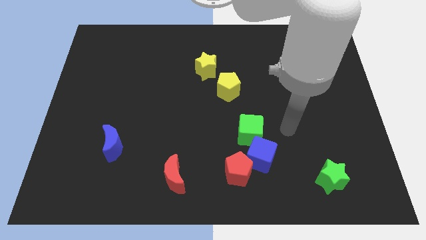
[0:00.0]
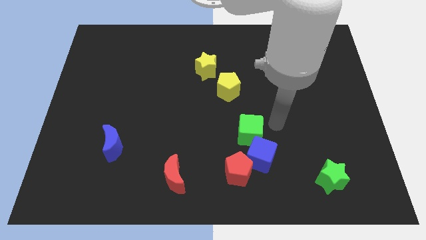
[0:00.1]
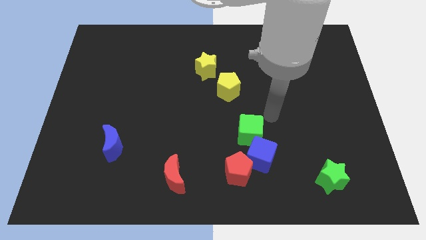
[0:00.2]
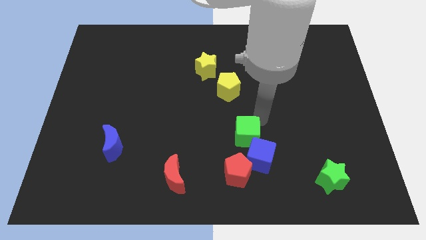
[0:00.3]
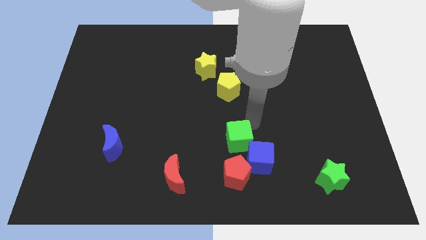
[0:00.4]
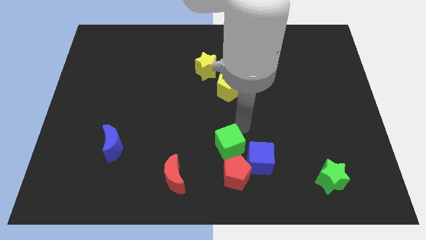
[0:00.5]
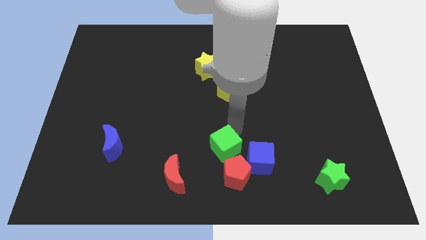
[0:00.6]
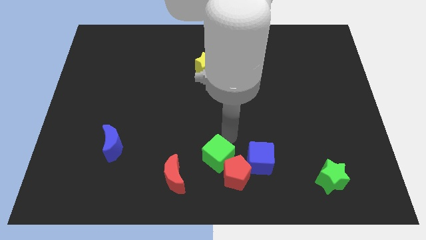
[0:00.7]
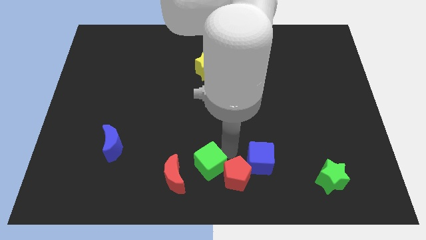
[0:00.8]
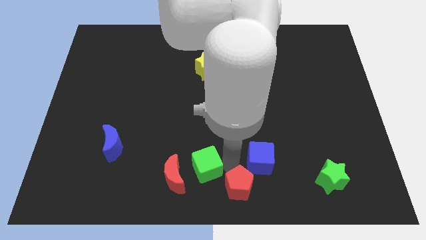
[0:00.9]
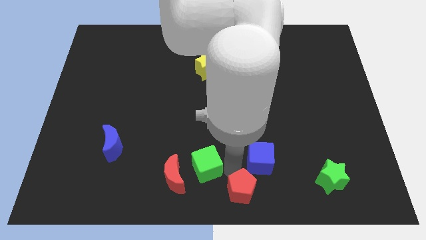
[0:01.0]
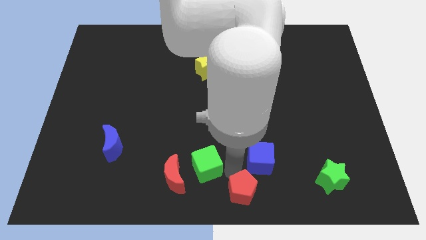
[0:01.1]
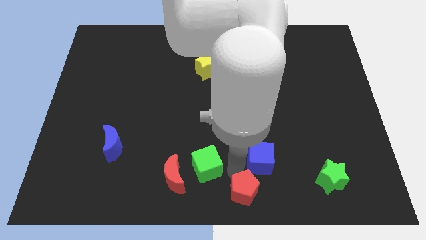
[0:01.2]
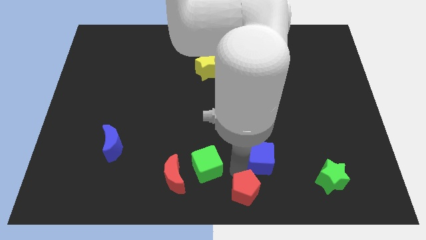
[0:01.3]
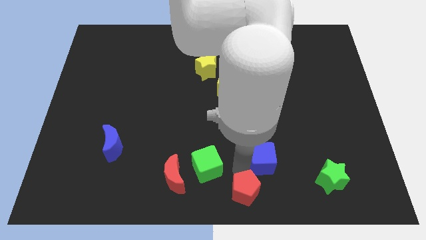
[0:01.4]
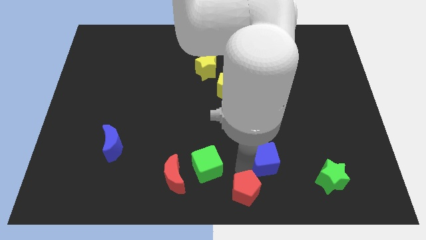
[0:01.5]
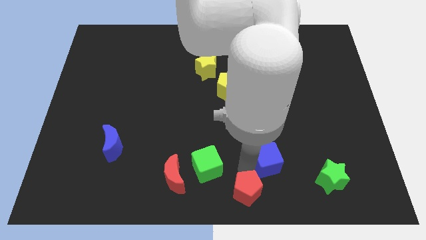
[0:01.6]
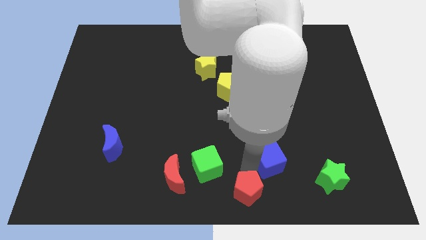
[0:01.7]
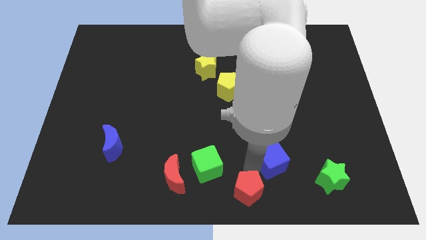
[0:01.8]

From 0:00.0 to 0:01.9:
move the blue cube away from the red pentagon and green cube

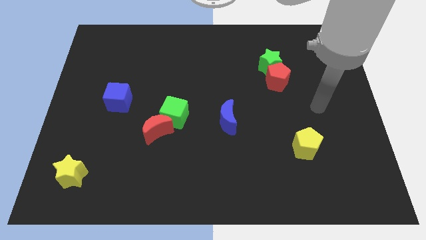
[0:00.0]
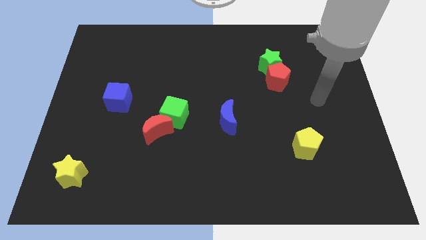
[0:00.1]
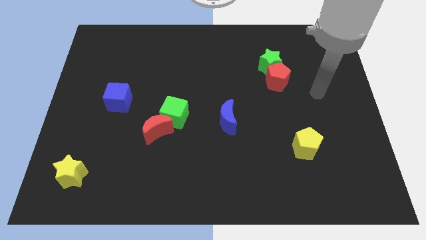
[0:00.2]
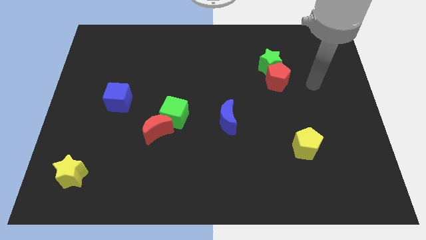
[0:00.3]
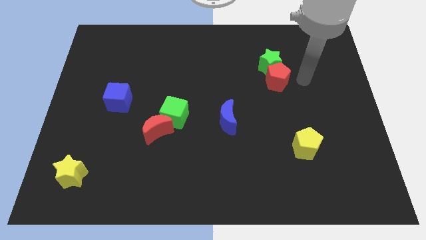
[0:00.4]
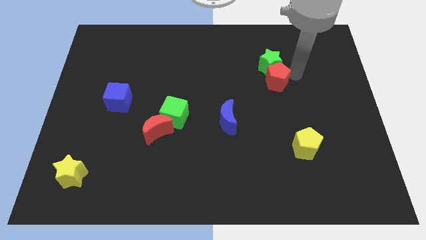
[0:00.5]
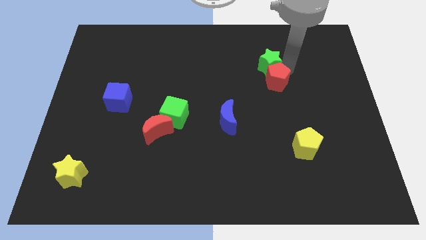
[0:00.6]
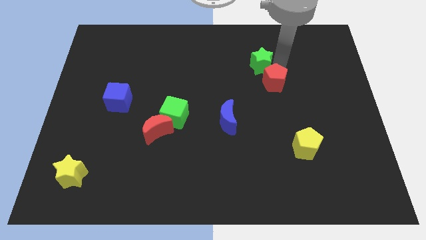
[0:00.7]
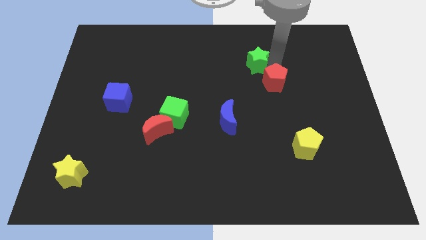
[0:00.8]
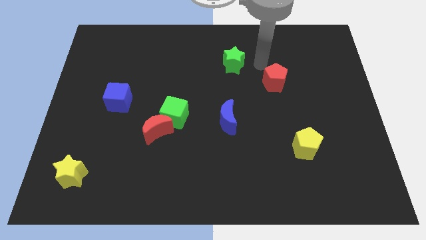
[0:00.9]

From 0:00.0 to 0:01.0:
pull the red pentagon apart from the green star

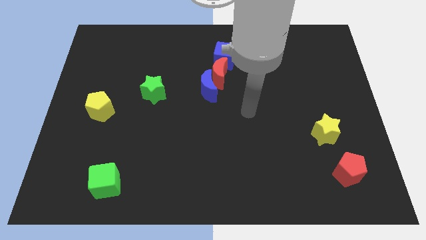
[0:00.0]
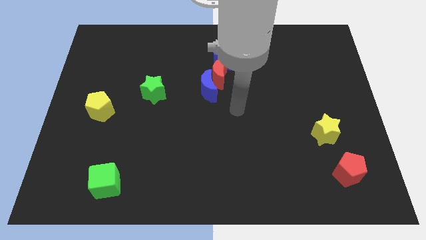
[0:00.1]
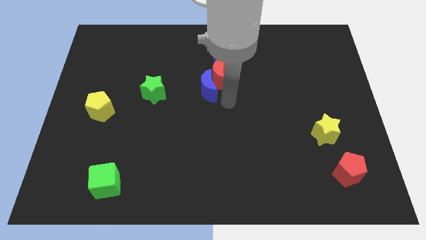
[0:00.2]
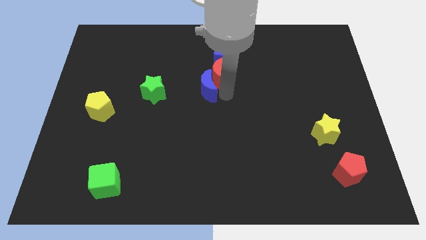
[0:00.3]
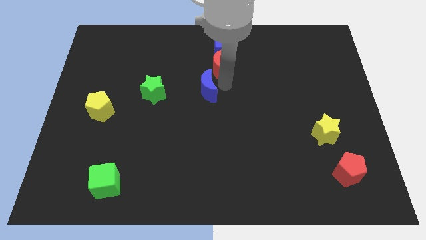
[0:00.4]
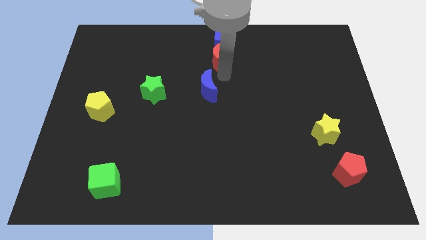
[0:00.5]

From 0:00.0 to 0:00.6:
pull the blue moon apart from the red moon

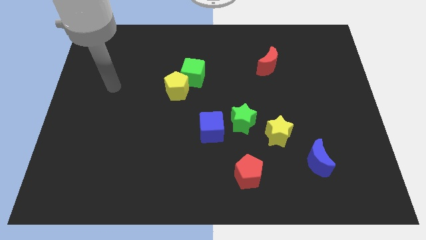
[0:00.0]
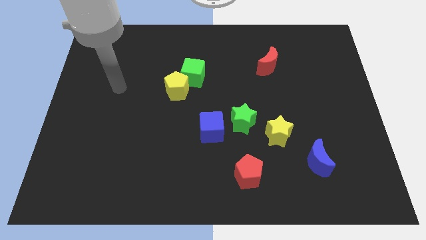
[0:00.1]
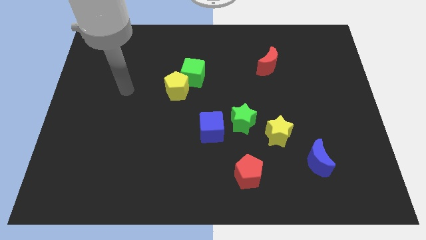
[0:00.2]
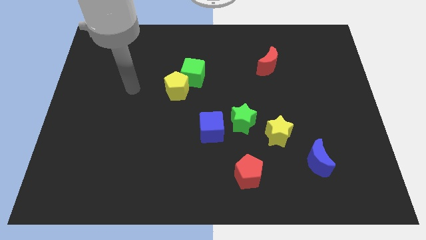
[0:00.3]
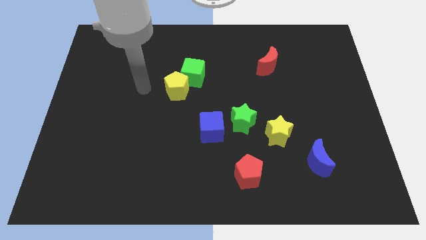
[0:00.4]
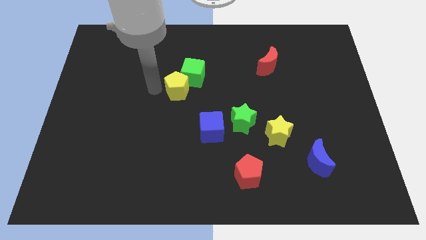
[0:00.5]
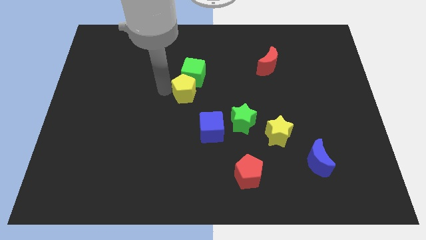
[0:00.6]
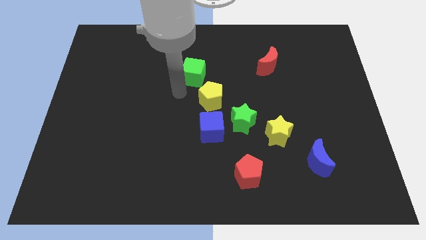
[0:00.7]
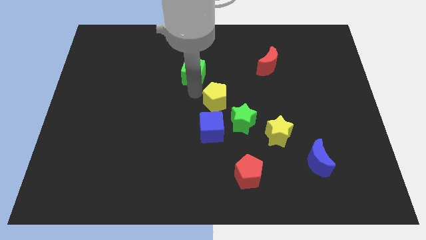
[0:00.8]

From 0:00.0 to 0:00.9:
move the green cube away from the yellow pentagon

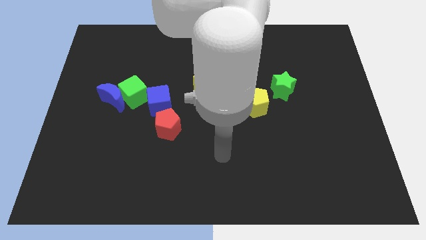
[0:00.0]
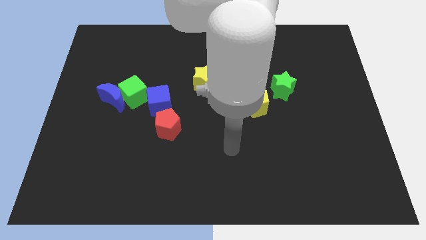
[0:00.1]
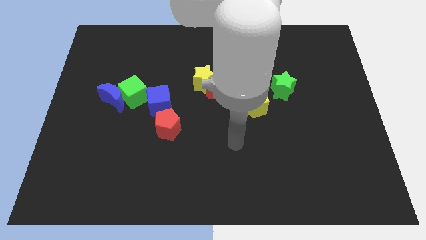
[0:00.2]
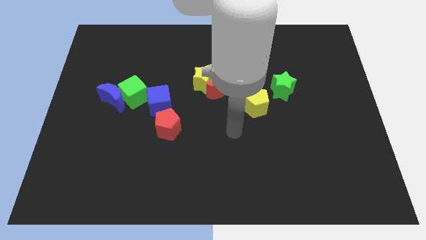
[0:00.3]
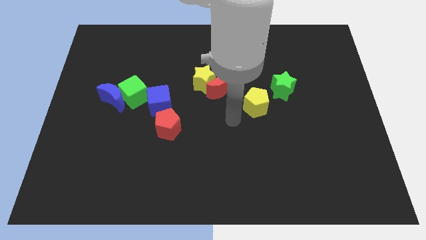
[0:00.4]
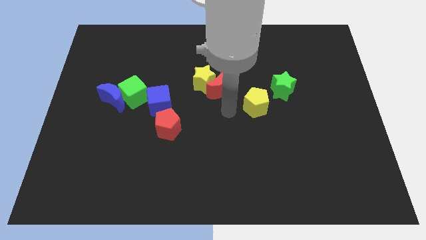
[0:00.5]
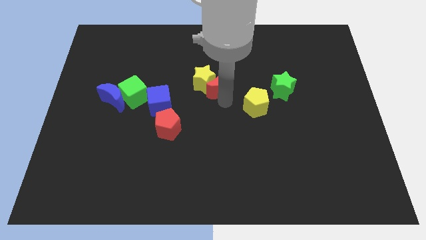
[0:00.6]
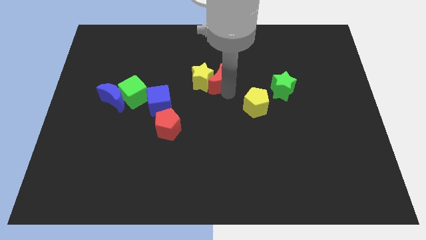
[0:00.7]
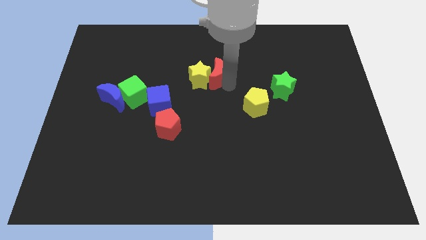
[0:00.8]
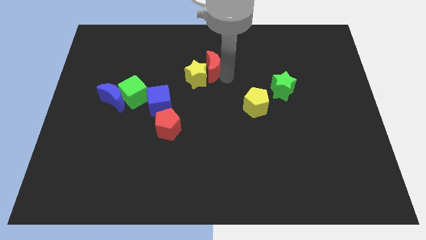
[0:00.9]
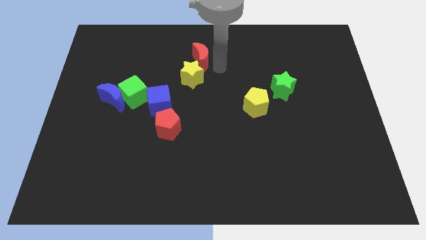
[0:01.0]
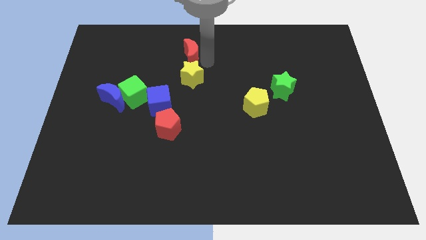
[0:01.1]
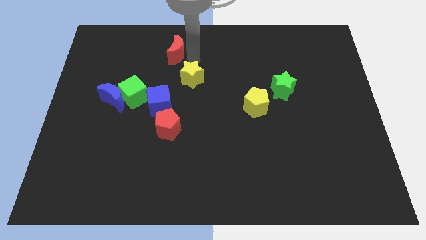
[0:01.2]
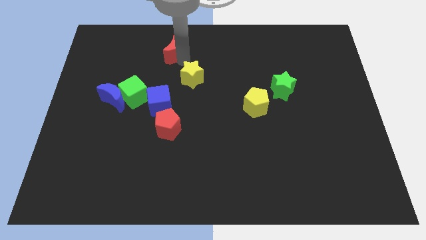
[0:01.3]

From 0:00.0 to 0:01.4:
pull the yellow star apart from the red moon

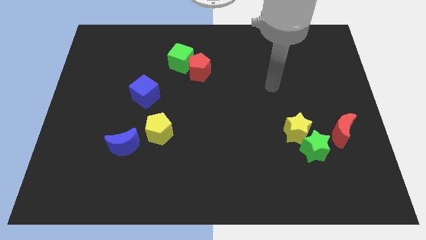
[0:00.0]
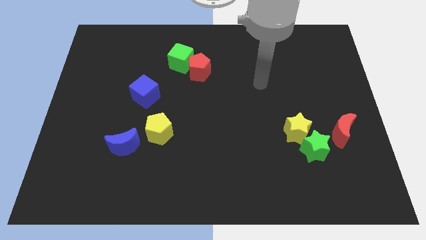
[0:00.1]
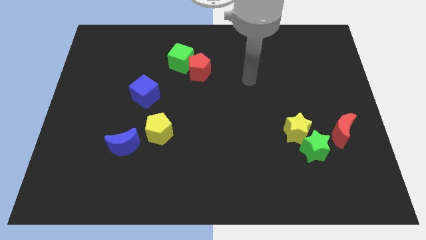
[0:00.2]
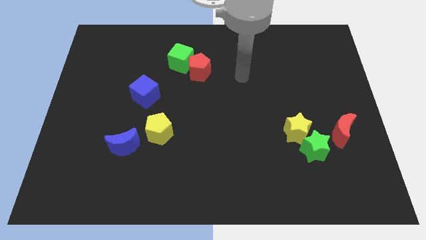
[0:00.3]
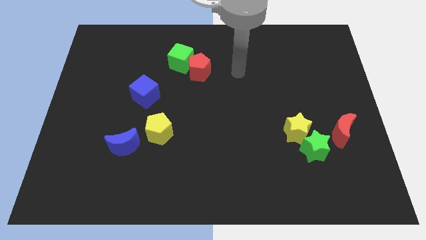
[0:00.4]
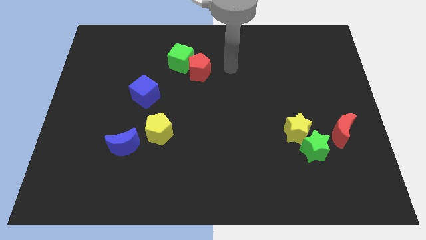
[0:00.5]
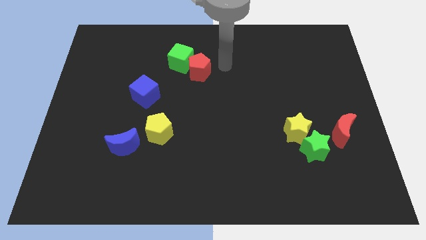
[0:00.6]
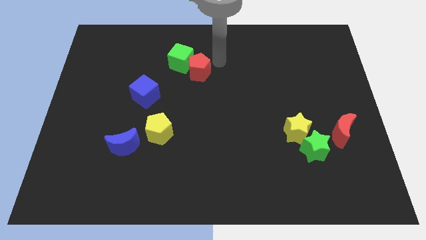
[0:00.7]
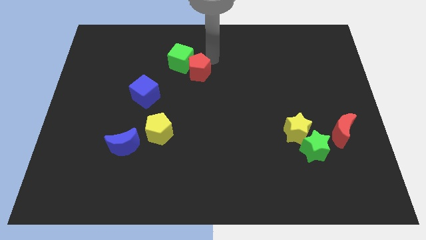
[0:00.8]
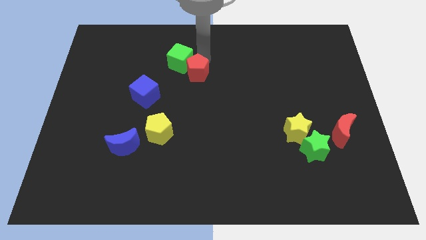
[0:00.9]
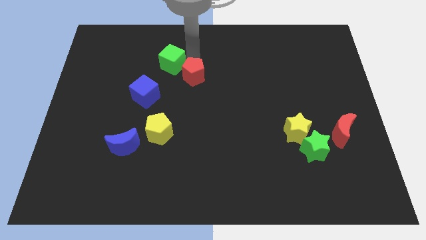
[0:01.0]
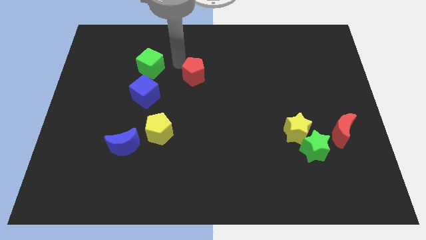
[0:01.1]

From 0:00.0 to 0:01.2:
separate the red pentagon from the green cube

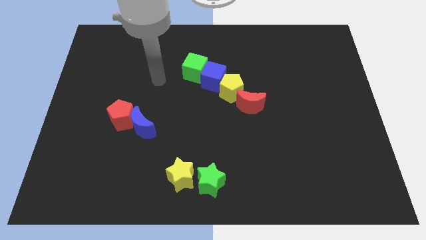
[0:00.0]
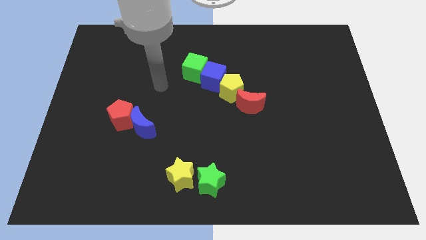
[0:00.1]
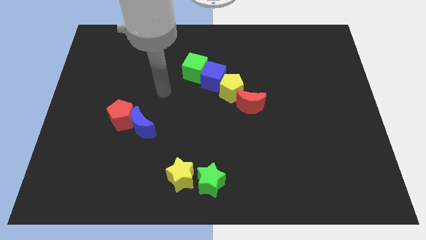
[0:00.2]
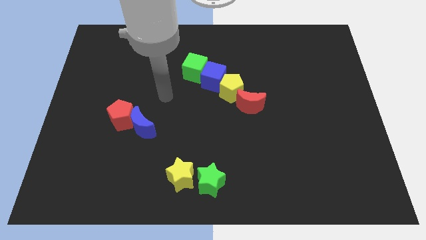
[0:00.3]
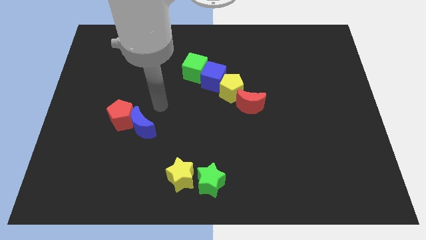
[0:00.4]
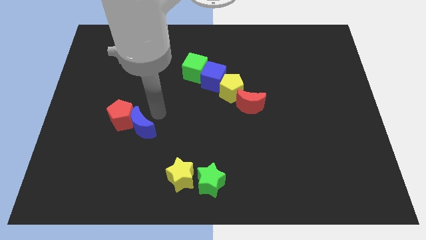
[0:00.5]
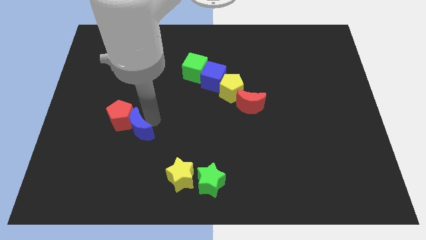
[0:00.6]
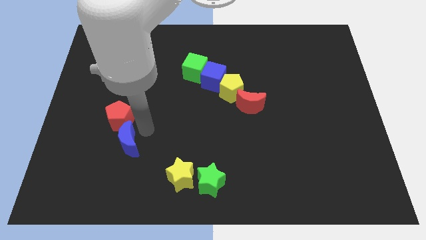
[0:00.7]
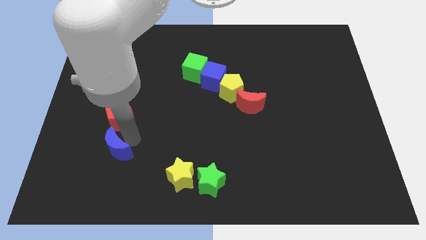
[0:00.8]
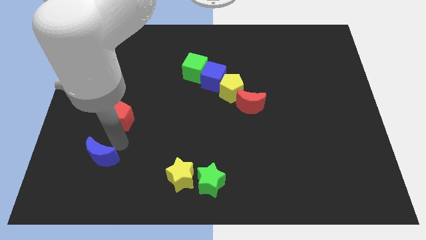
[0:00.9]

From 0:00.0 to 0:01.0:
move the red pentagon away from the blue moon

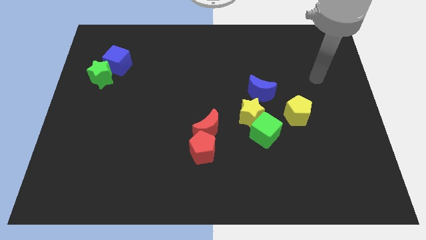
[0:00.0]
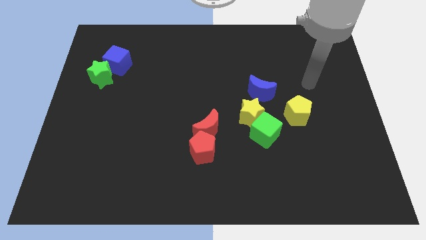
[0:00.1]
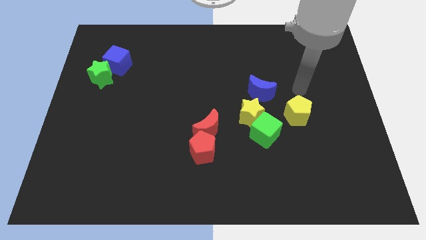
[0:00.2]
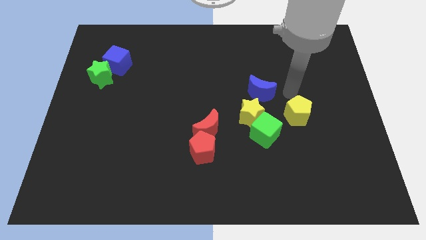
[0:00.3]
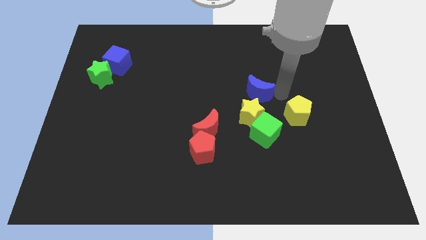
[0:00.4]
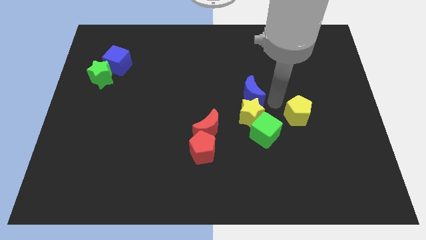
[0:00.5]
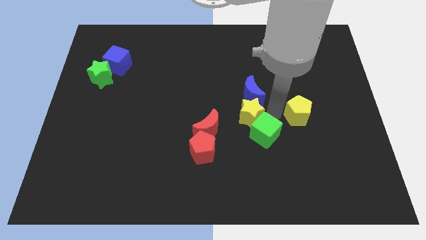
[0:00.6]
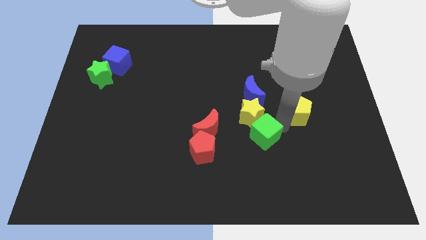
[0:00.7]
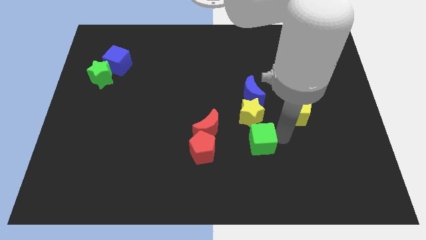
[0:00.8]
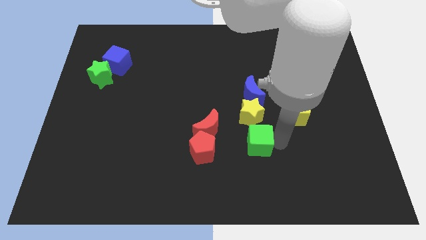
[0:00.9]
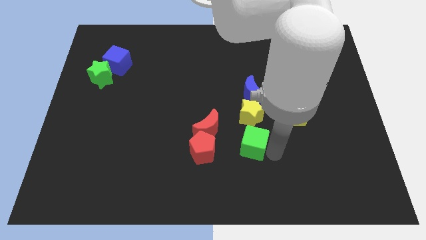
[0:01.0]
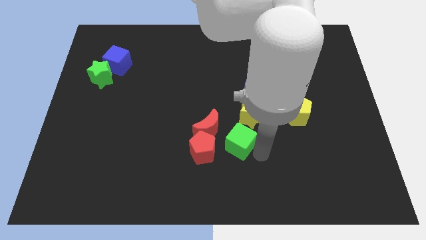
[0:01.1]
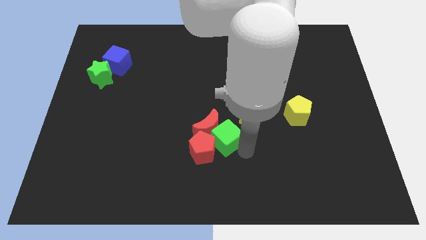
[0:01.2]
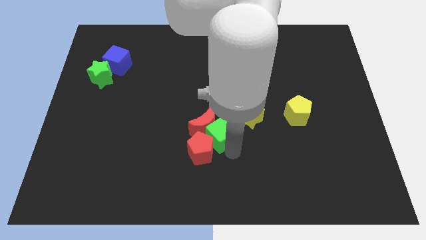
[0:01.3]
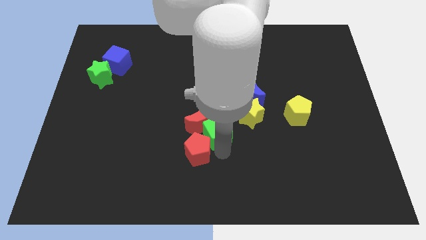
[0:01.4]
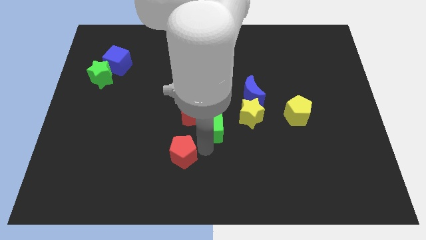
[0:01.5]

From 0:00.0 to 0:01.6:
pull the red moon apart from the red pentagon
